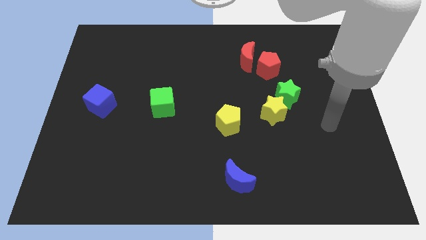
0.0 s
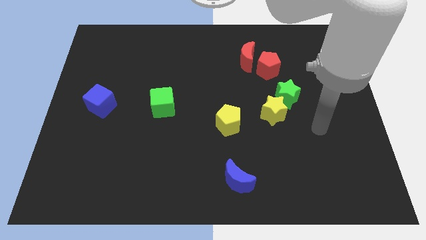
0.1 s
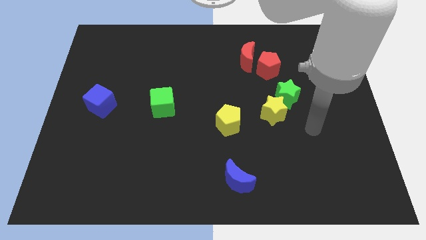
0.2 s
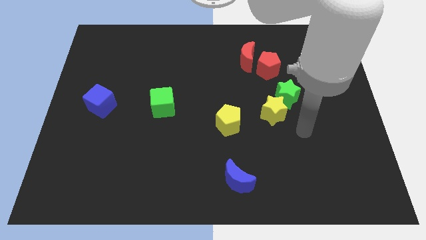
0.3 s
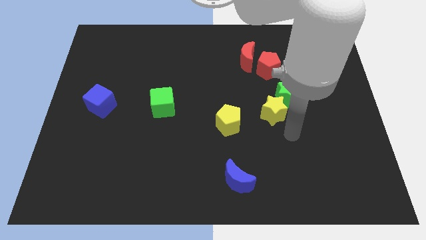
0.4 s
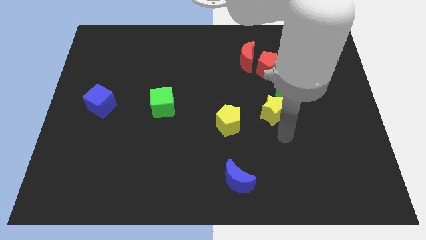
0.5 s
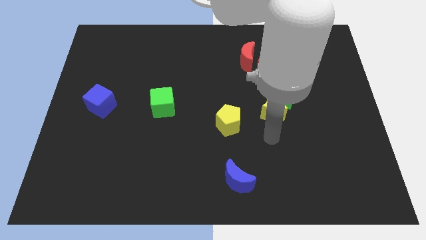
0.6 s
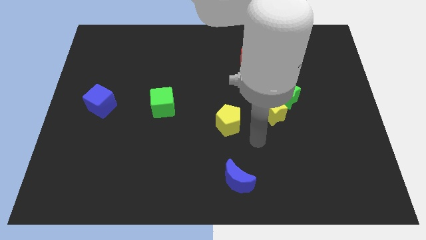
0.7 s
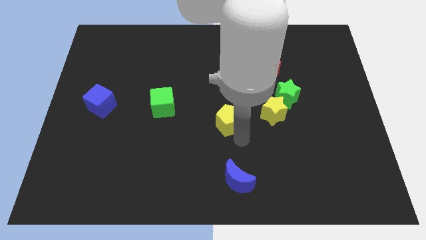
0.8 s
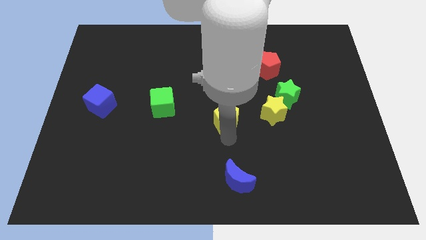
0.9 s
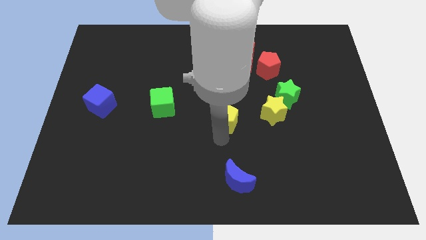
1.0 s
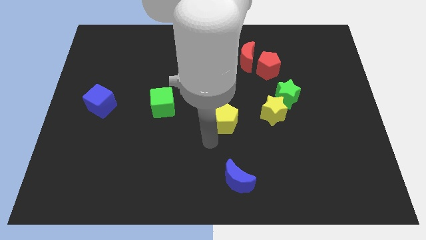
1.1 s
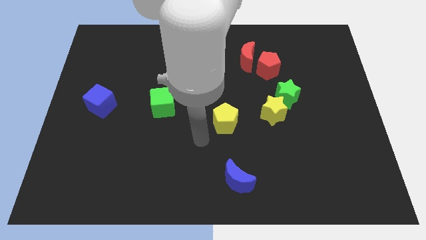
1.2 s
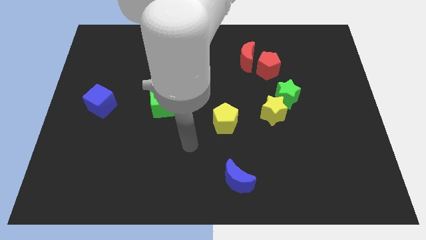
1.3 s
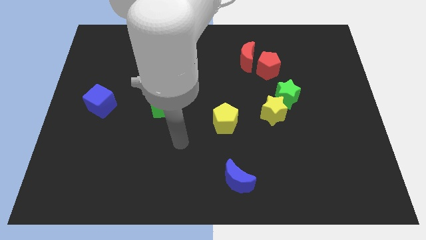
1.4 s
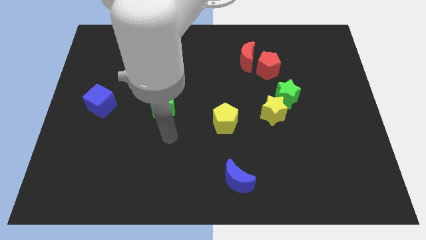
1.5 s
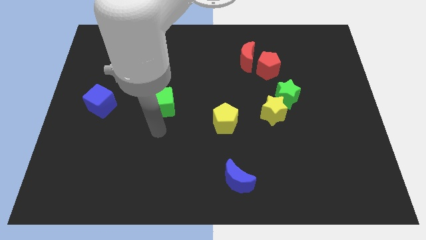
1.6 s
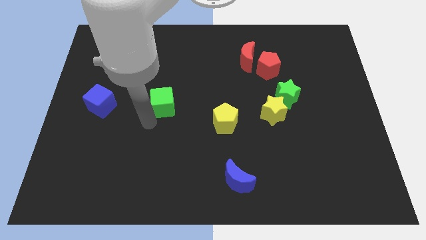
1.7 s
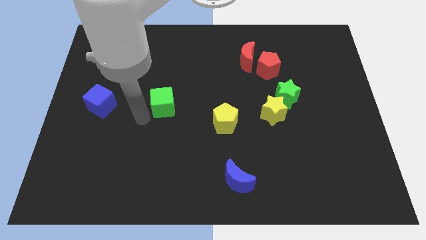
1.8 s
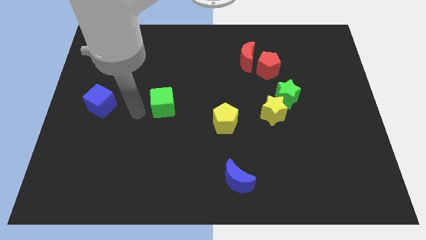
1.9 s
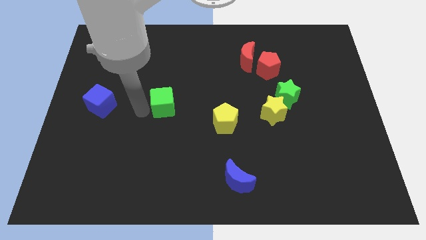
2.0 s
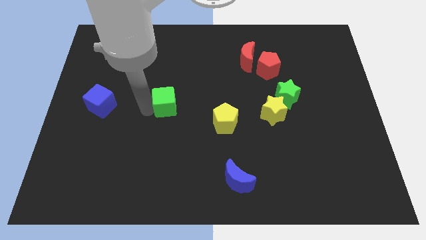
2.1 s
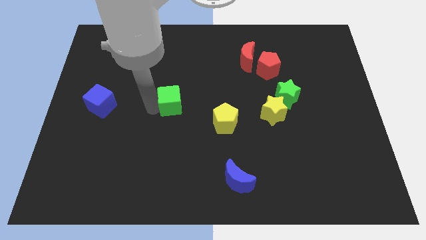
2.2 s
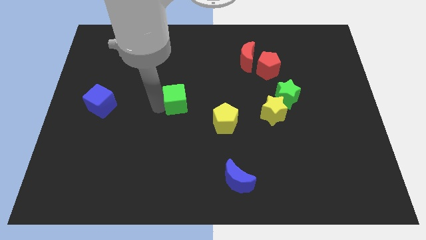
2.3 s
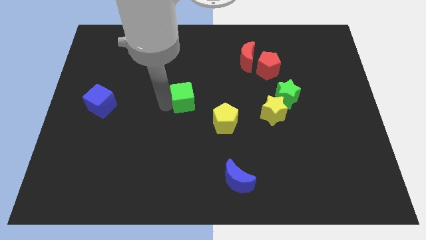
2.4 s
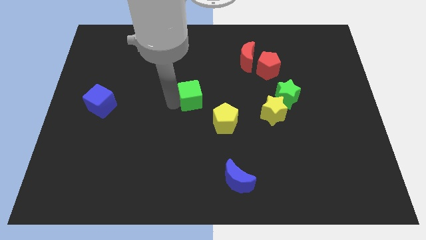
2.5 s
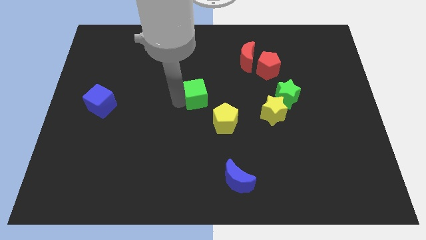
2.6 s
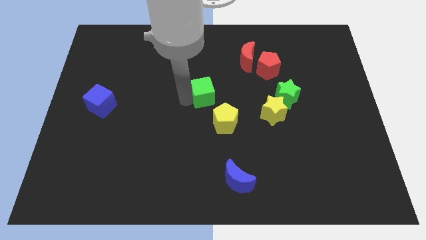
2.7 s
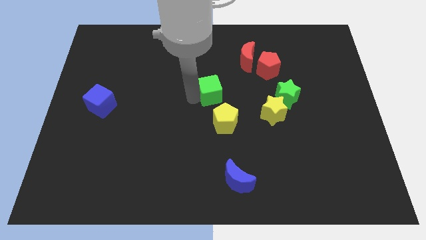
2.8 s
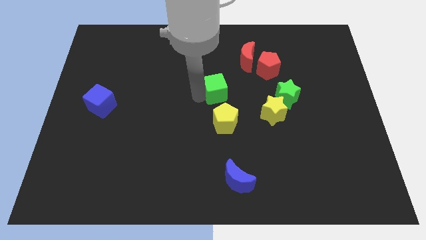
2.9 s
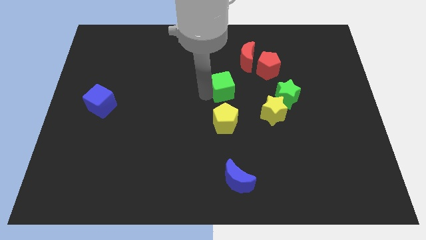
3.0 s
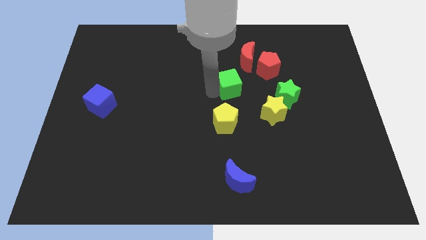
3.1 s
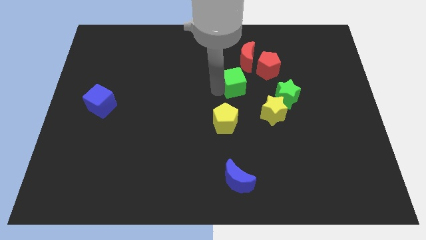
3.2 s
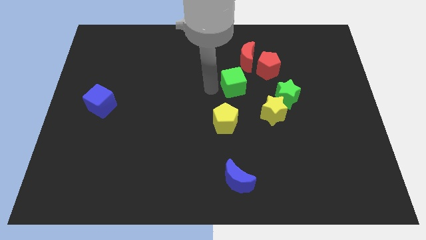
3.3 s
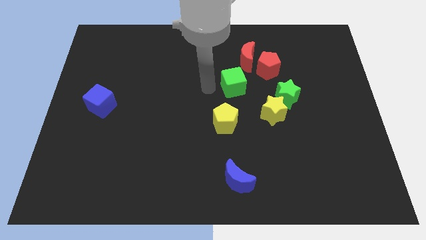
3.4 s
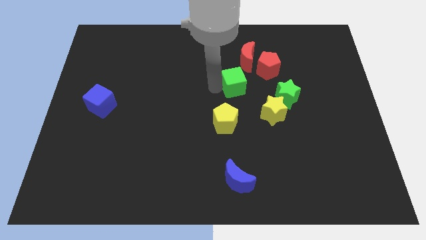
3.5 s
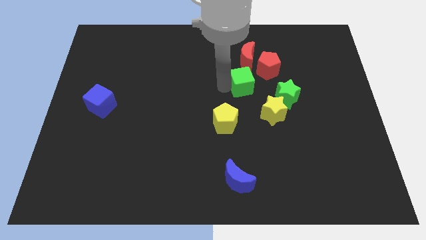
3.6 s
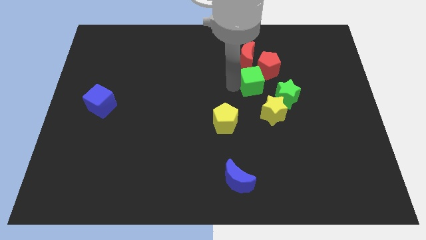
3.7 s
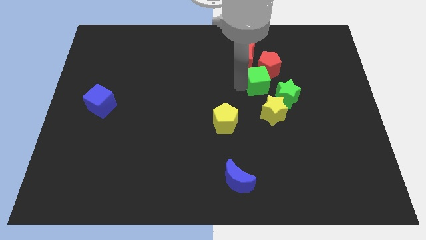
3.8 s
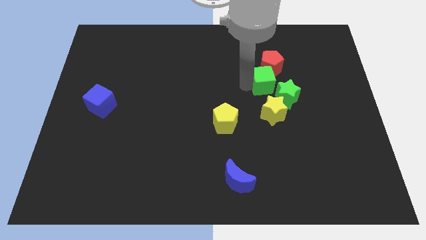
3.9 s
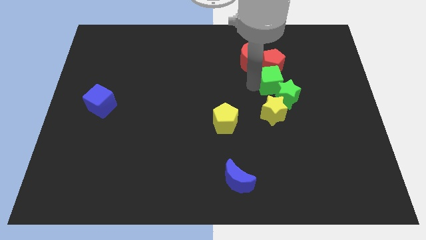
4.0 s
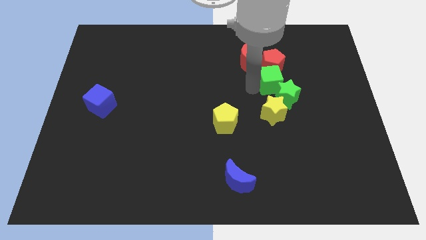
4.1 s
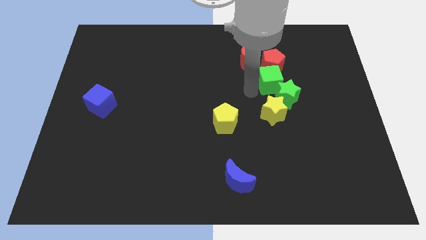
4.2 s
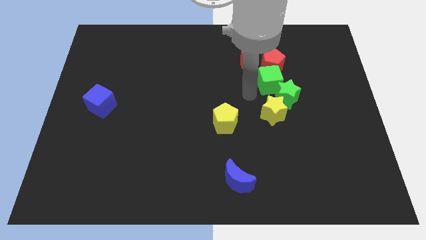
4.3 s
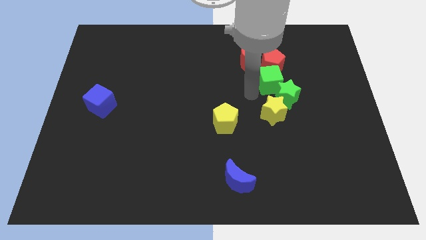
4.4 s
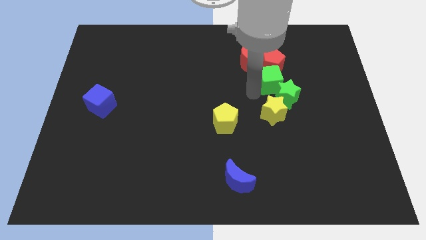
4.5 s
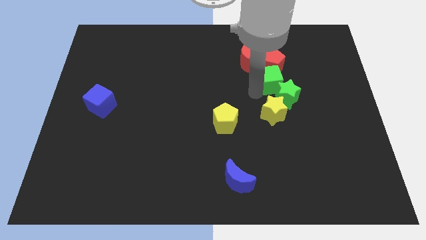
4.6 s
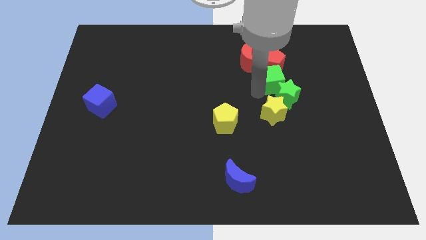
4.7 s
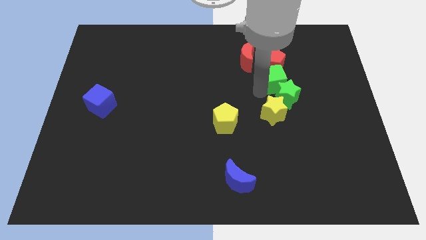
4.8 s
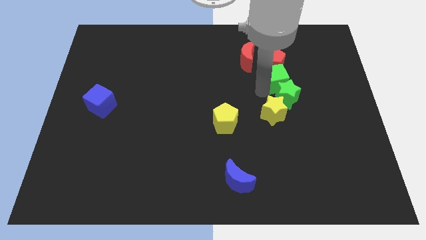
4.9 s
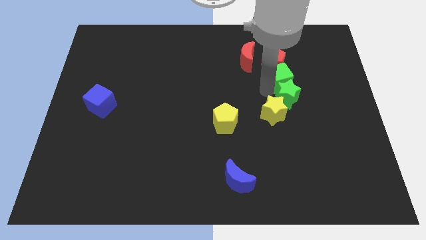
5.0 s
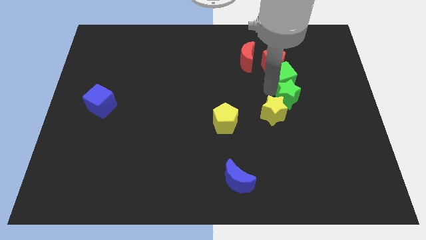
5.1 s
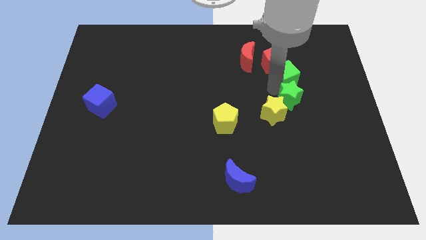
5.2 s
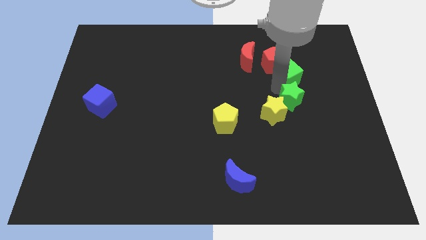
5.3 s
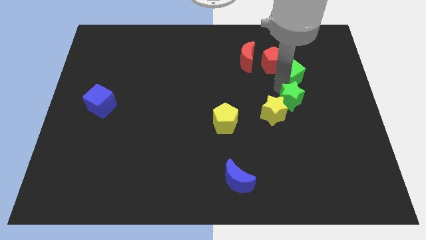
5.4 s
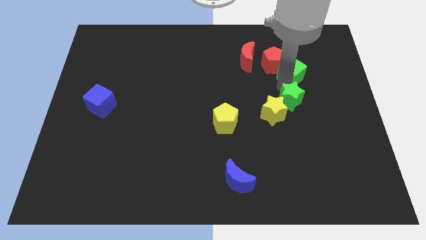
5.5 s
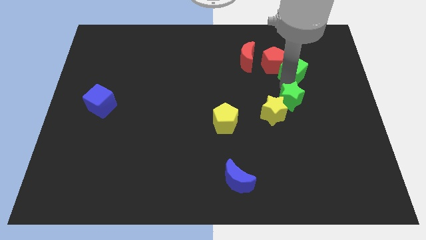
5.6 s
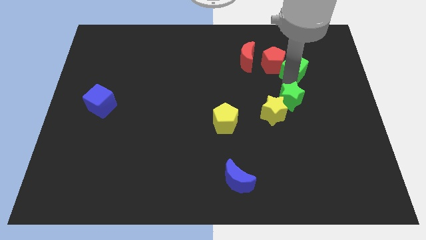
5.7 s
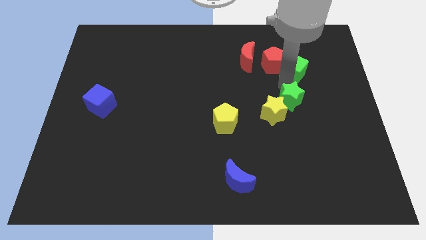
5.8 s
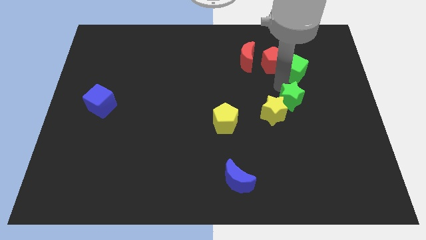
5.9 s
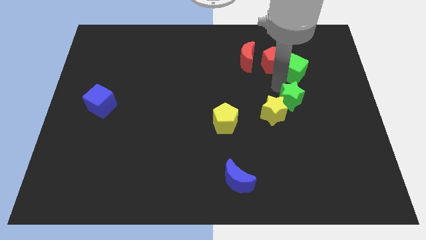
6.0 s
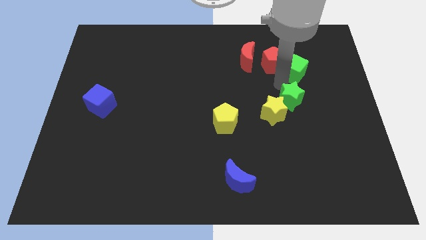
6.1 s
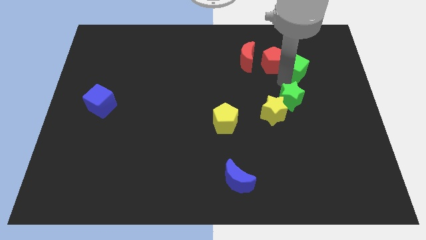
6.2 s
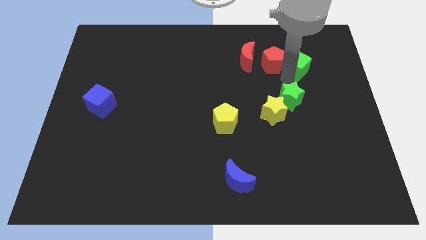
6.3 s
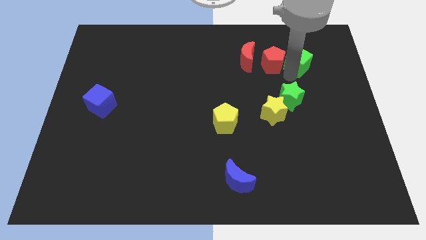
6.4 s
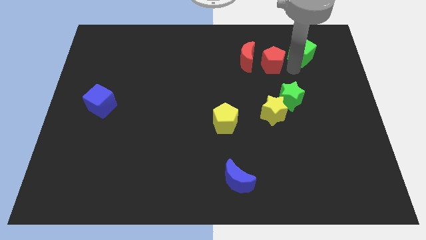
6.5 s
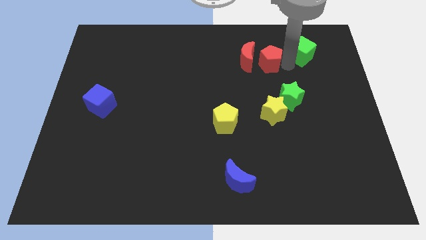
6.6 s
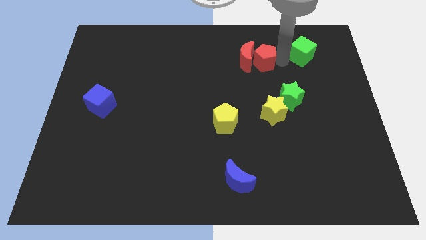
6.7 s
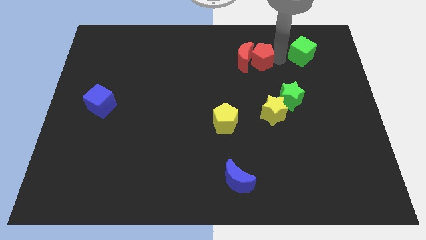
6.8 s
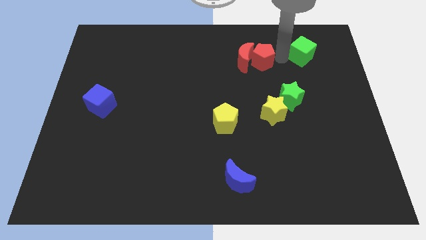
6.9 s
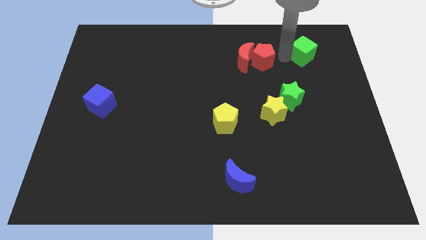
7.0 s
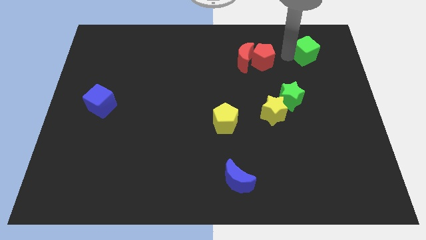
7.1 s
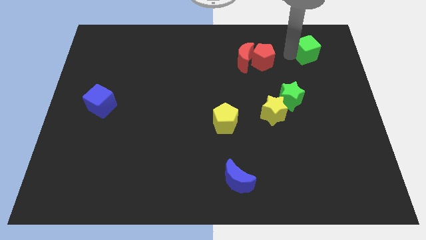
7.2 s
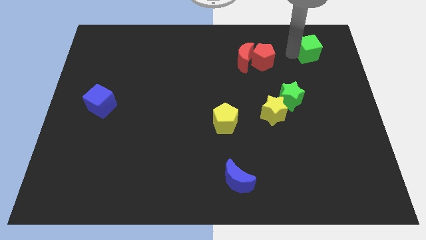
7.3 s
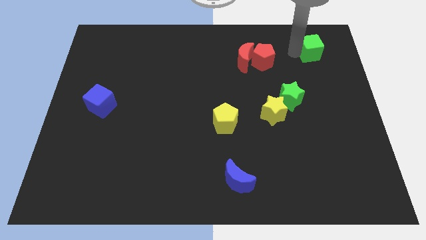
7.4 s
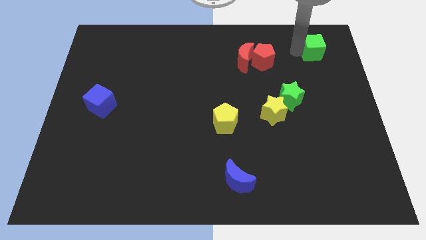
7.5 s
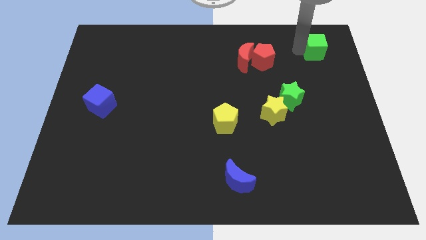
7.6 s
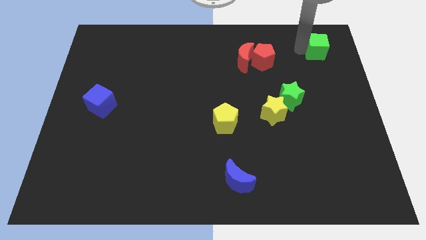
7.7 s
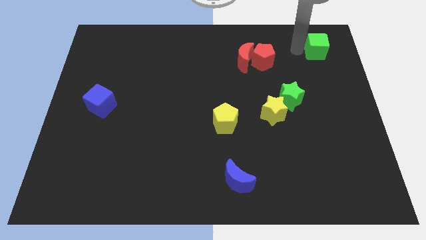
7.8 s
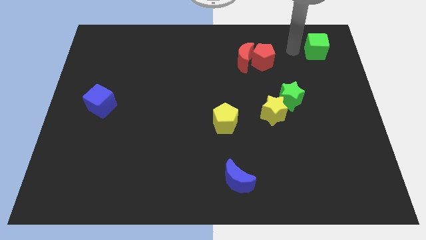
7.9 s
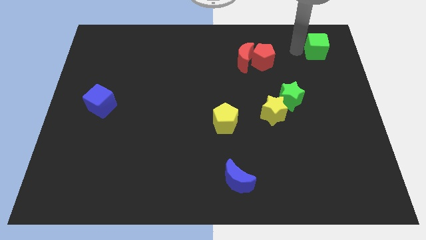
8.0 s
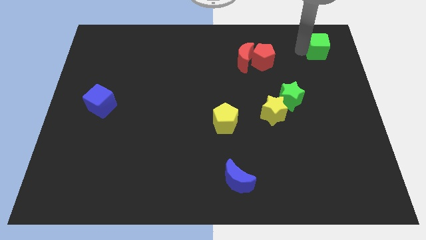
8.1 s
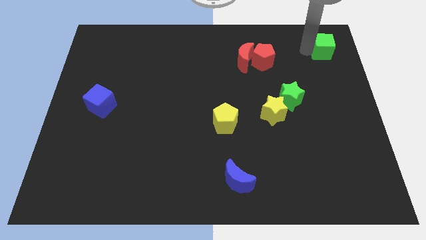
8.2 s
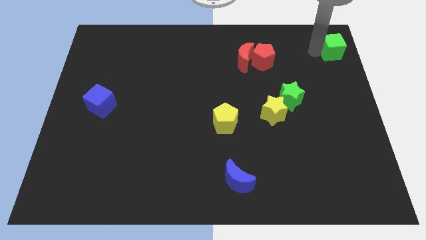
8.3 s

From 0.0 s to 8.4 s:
put the green cube to the upper right corner
